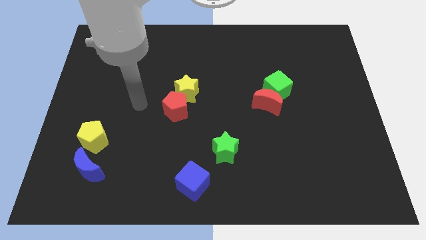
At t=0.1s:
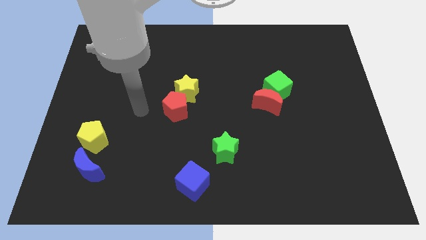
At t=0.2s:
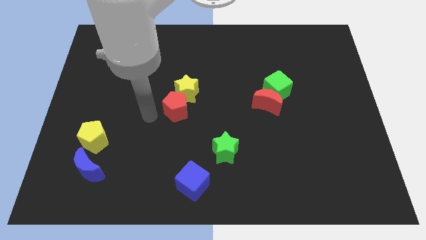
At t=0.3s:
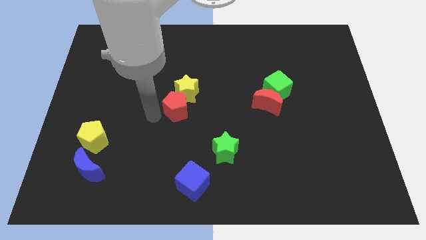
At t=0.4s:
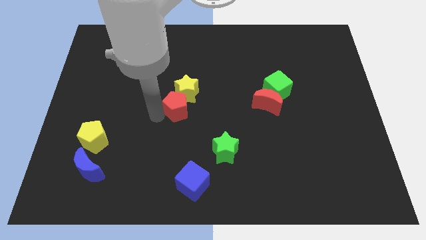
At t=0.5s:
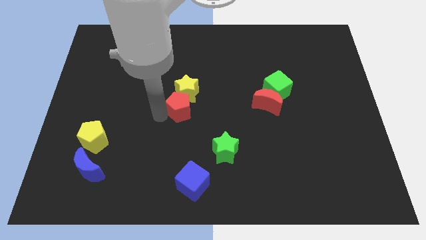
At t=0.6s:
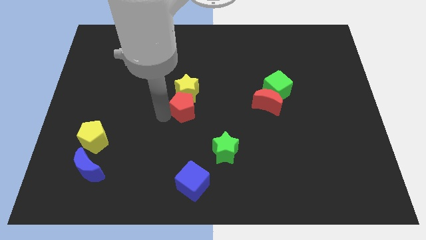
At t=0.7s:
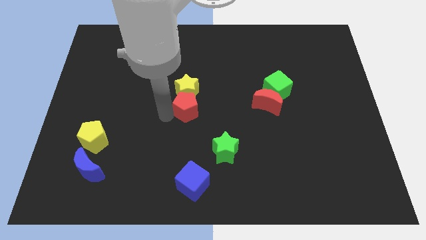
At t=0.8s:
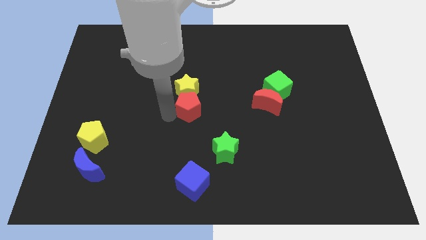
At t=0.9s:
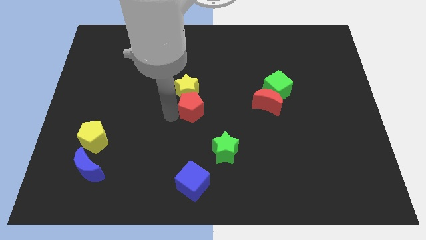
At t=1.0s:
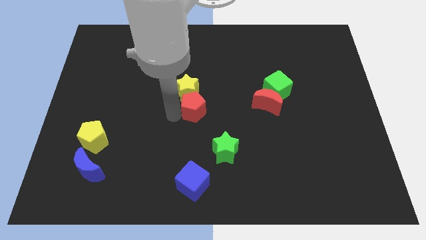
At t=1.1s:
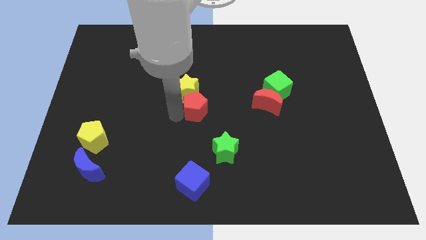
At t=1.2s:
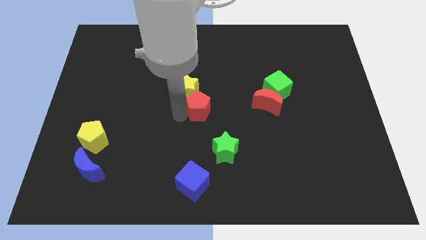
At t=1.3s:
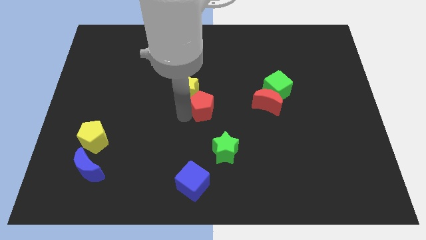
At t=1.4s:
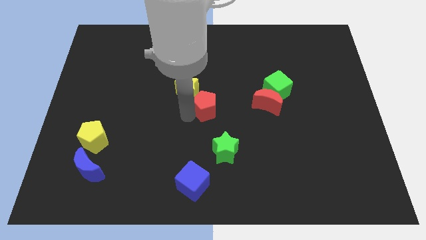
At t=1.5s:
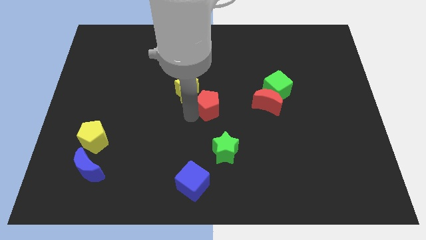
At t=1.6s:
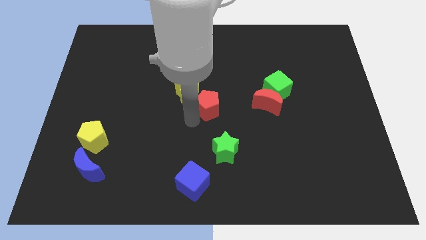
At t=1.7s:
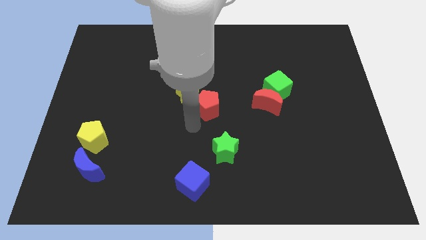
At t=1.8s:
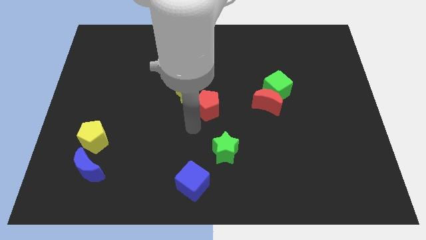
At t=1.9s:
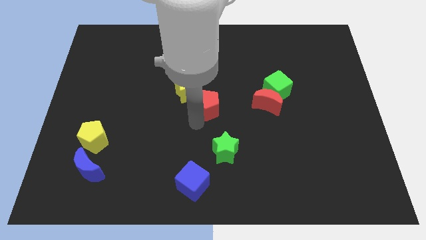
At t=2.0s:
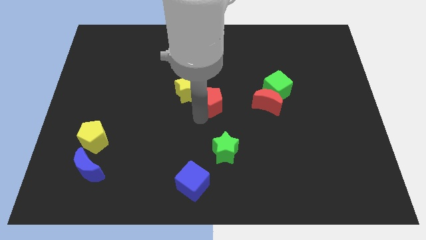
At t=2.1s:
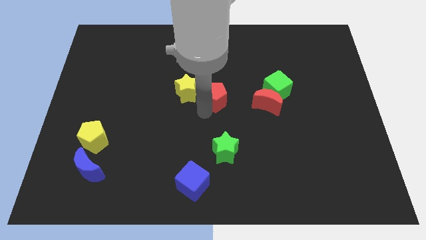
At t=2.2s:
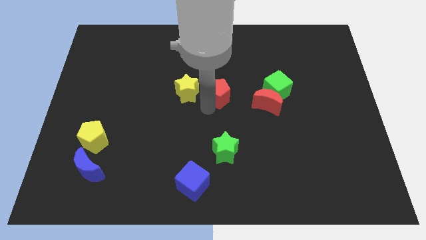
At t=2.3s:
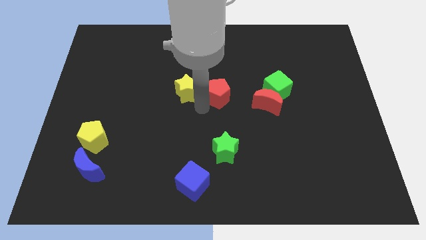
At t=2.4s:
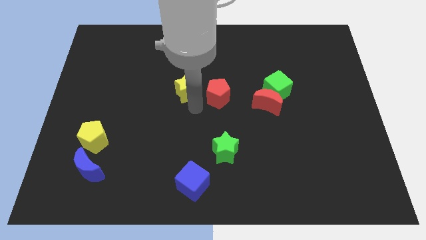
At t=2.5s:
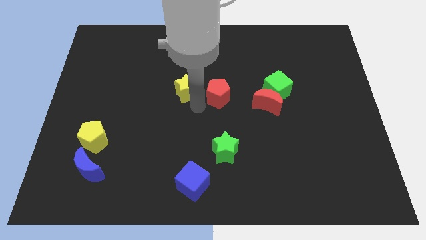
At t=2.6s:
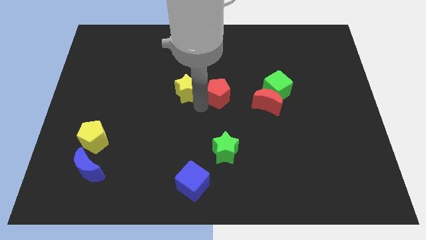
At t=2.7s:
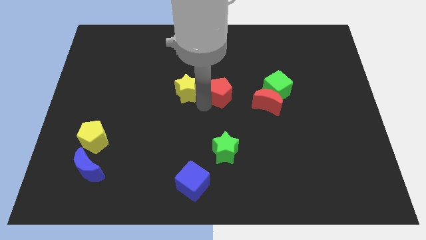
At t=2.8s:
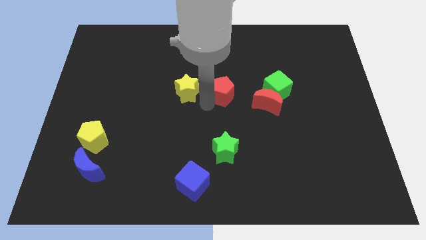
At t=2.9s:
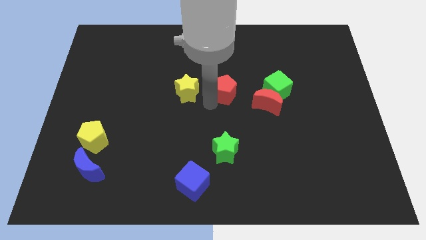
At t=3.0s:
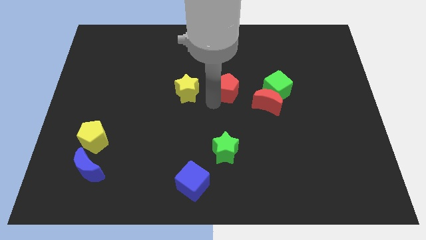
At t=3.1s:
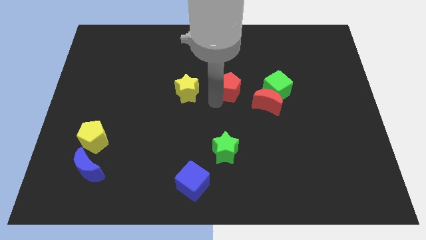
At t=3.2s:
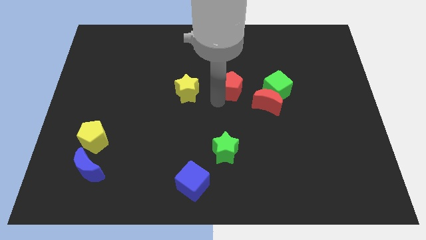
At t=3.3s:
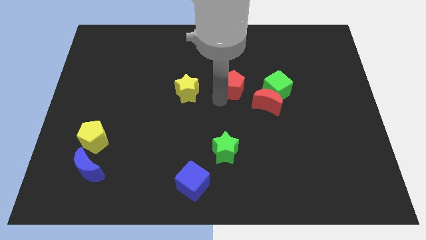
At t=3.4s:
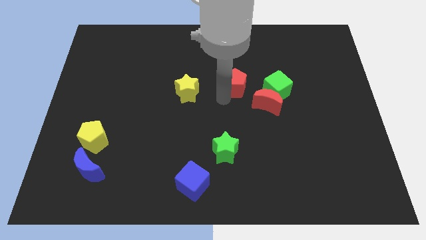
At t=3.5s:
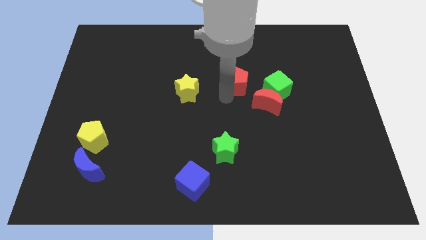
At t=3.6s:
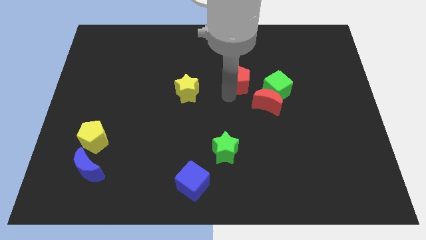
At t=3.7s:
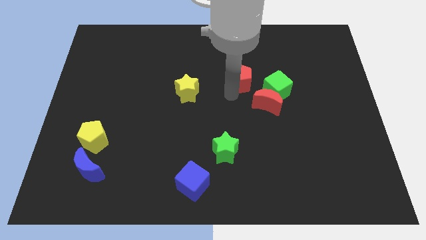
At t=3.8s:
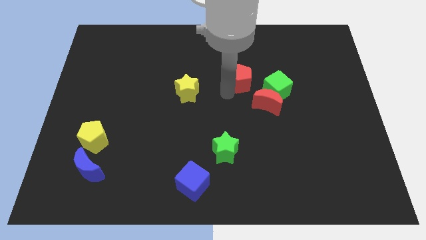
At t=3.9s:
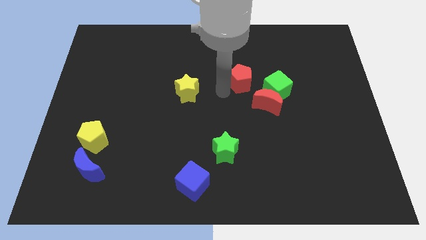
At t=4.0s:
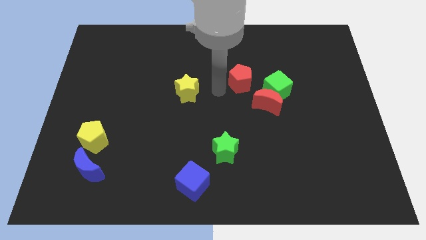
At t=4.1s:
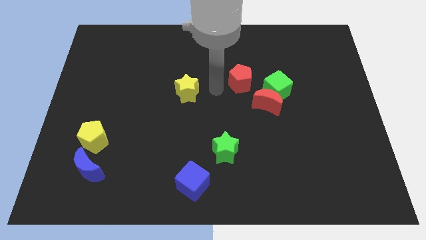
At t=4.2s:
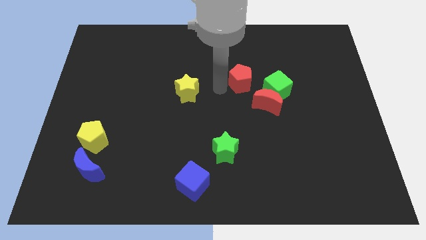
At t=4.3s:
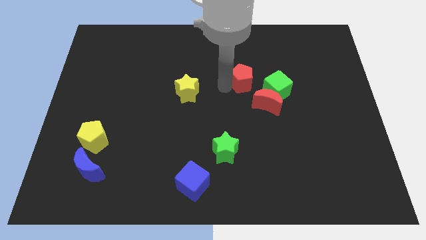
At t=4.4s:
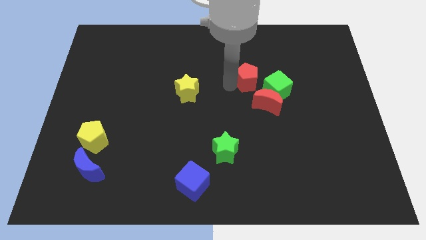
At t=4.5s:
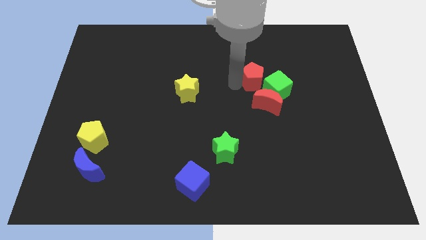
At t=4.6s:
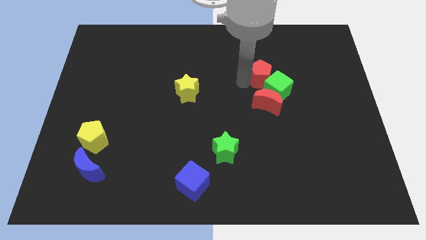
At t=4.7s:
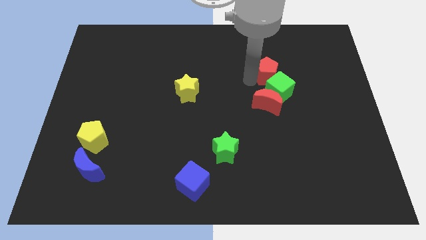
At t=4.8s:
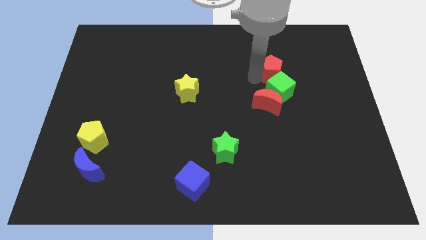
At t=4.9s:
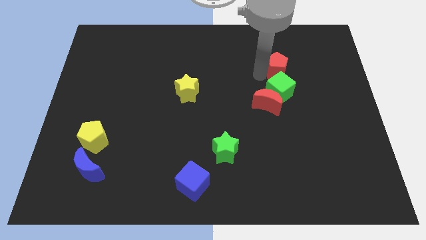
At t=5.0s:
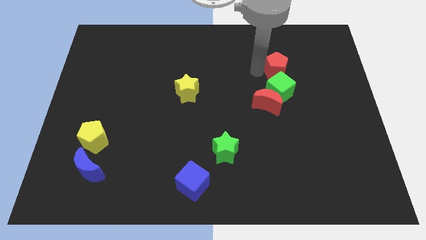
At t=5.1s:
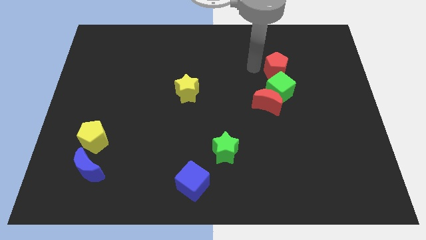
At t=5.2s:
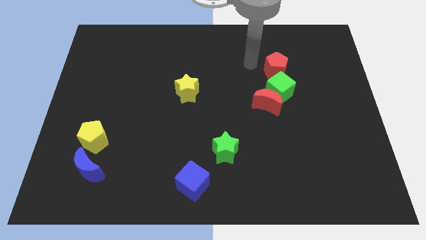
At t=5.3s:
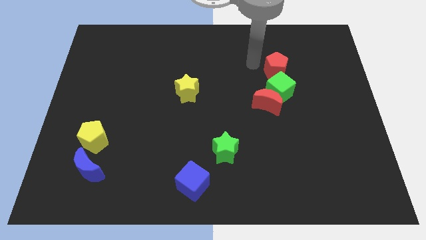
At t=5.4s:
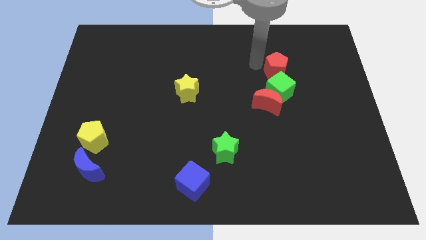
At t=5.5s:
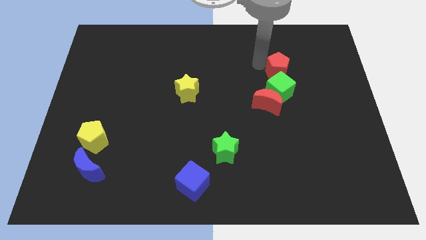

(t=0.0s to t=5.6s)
slide the red pentagon diagonally up and to the right of the green cube

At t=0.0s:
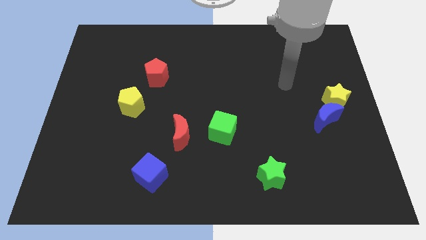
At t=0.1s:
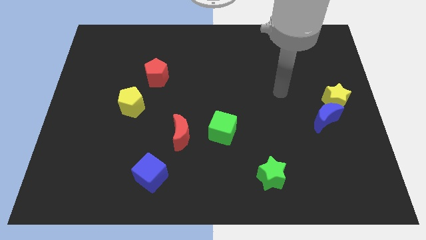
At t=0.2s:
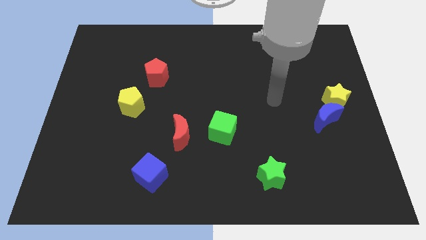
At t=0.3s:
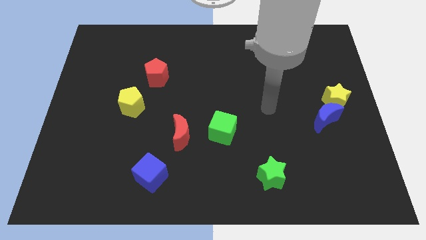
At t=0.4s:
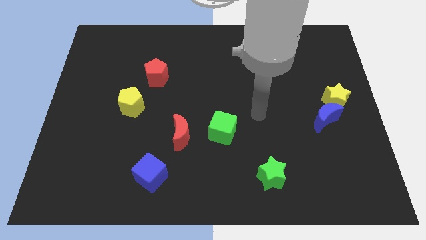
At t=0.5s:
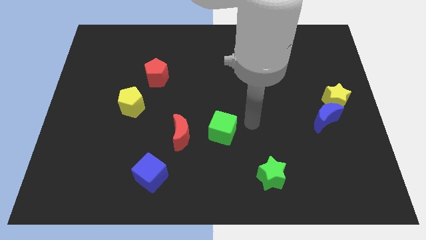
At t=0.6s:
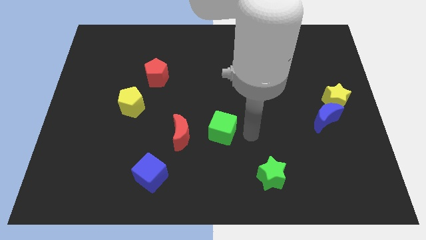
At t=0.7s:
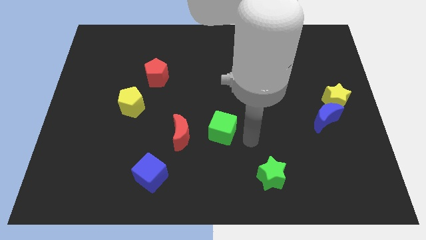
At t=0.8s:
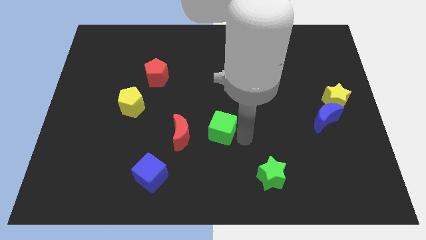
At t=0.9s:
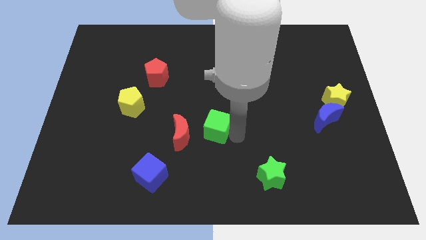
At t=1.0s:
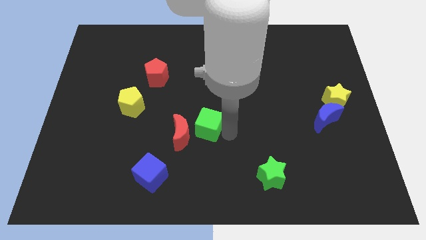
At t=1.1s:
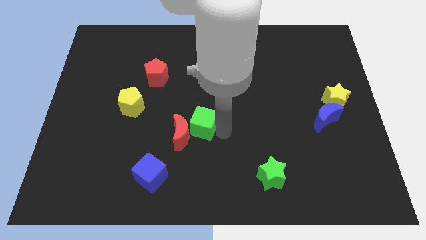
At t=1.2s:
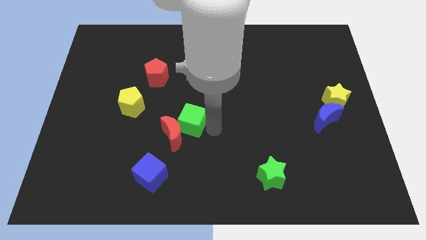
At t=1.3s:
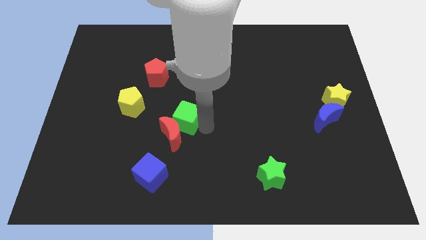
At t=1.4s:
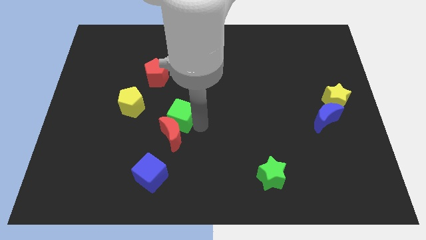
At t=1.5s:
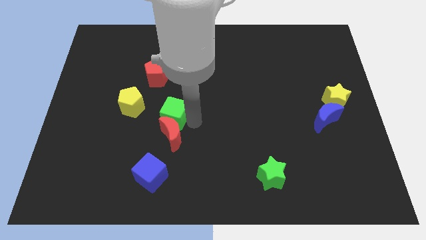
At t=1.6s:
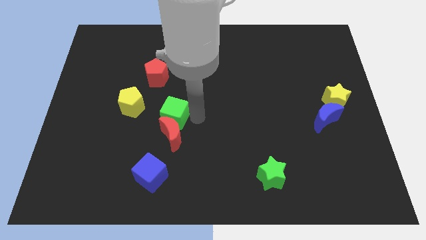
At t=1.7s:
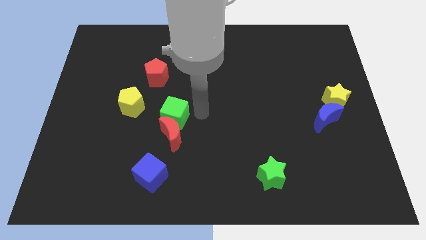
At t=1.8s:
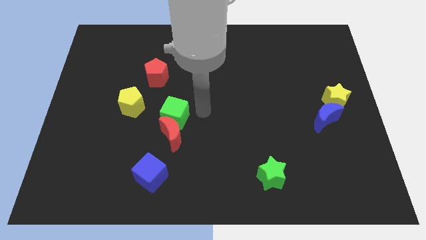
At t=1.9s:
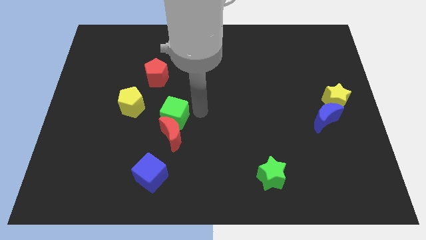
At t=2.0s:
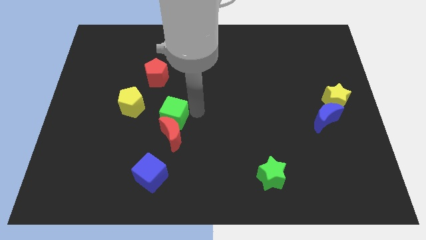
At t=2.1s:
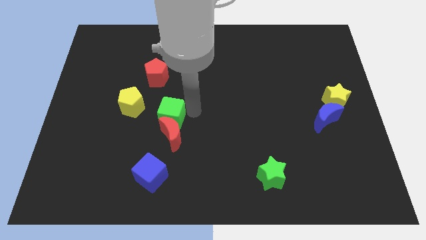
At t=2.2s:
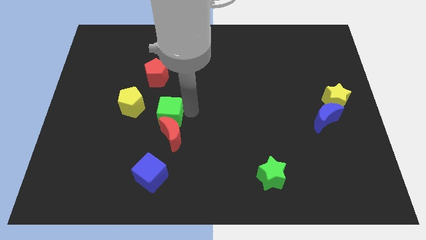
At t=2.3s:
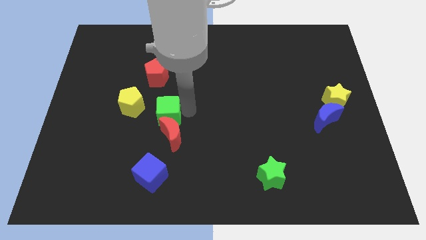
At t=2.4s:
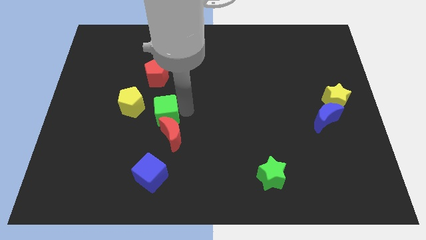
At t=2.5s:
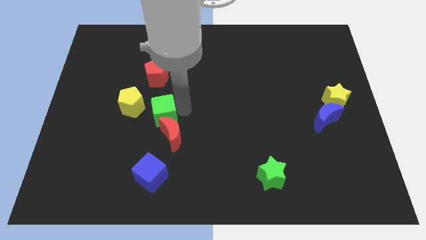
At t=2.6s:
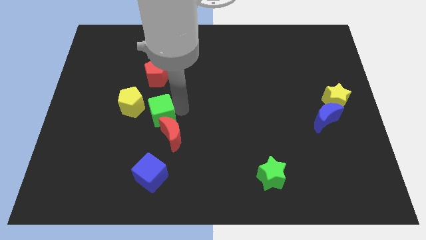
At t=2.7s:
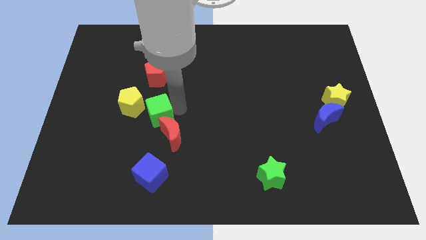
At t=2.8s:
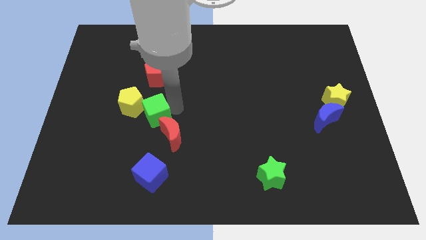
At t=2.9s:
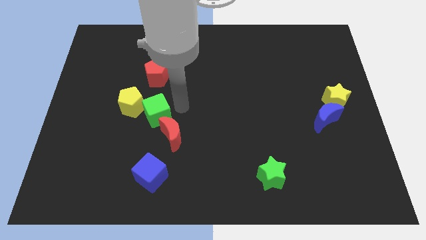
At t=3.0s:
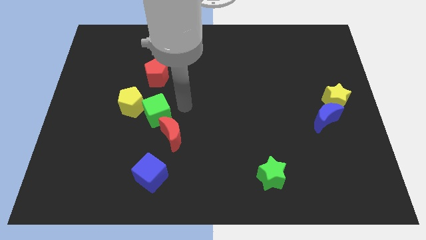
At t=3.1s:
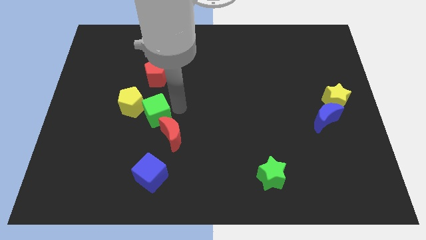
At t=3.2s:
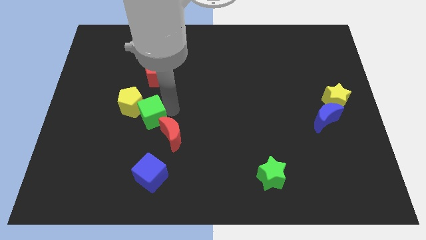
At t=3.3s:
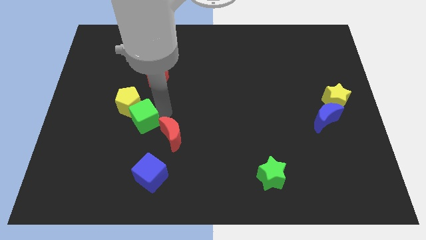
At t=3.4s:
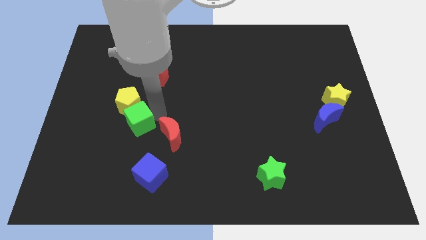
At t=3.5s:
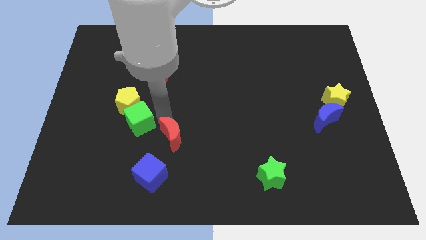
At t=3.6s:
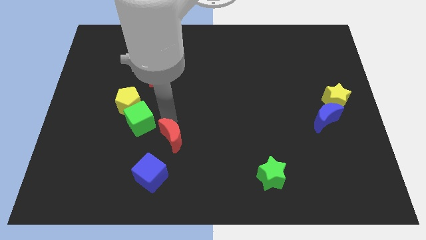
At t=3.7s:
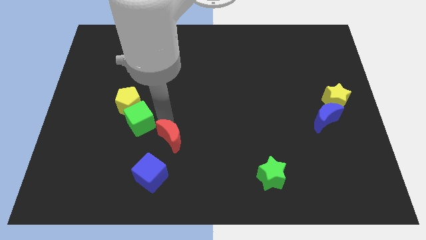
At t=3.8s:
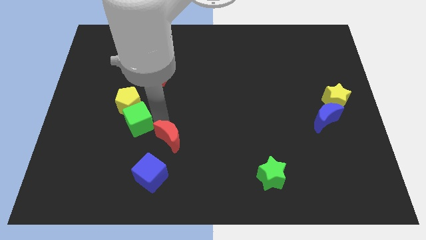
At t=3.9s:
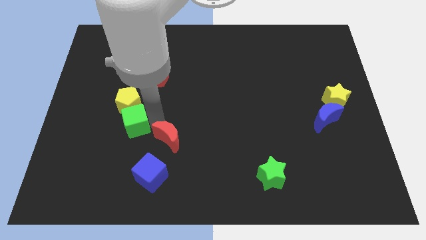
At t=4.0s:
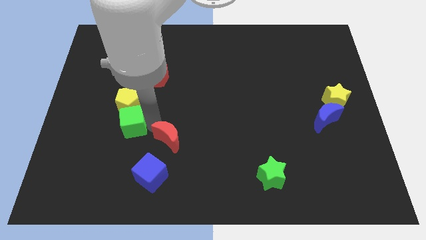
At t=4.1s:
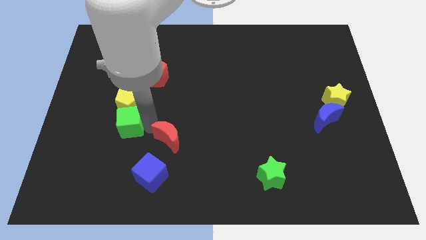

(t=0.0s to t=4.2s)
slide the green cube to the bottom left side of the yellow pentagon
